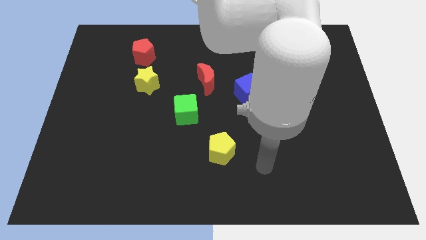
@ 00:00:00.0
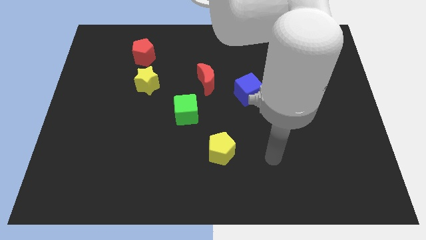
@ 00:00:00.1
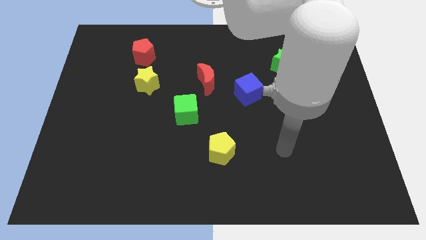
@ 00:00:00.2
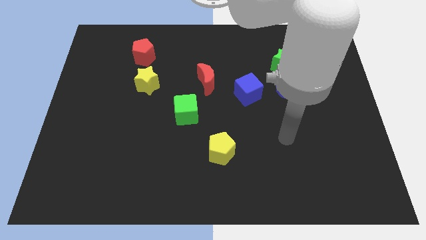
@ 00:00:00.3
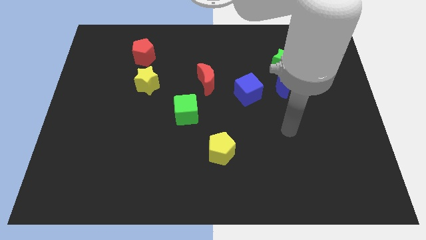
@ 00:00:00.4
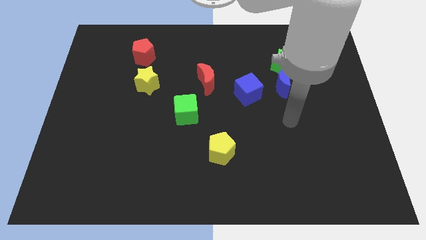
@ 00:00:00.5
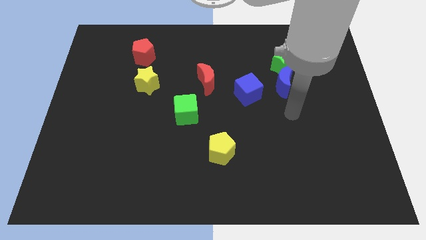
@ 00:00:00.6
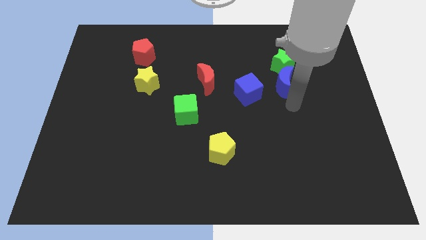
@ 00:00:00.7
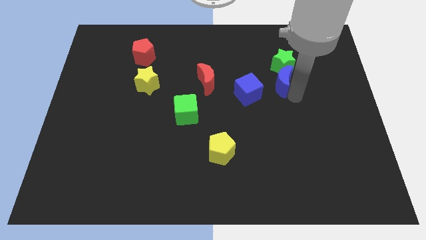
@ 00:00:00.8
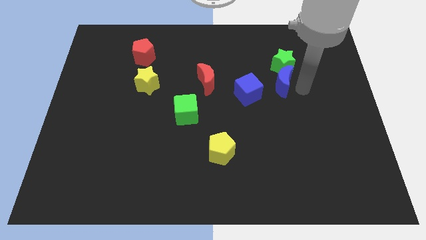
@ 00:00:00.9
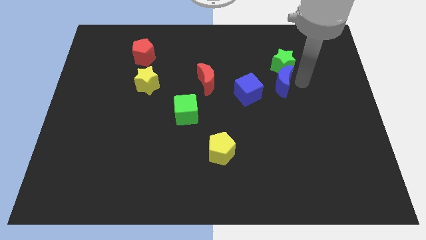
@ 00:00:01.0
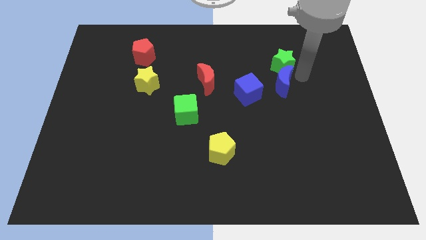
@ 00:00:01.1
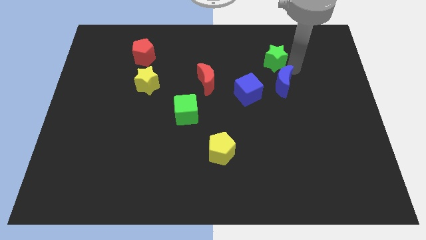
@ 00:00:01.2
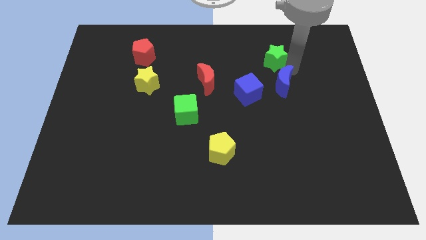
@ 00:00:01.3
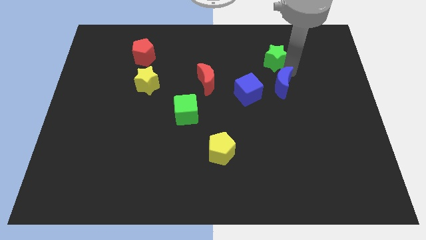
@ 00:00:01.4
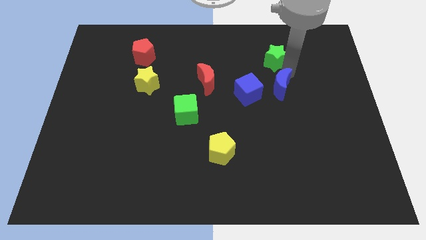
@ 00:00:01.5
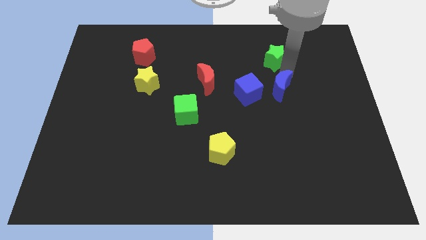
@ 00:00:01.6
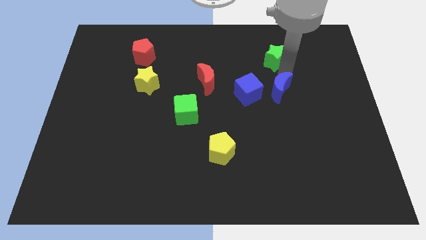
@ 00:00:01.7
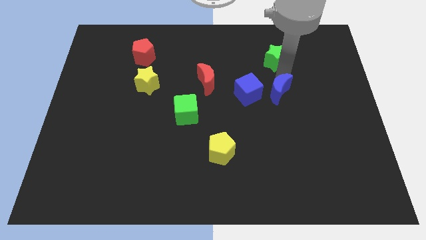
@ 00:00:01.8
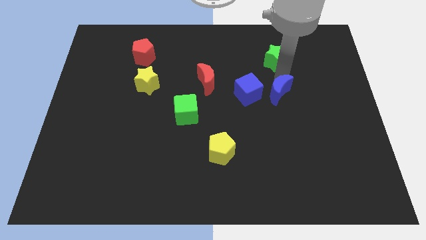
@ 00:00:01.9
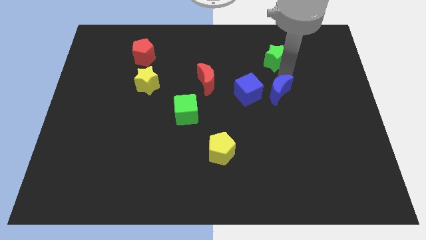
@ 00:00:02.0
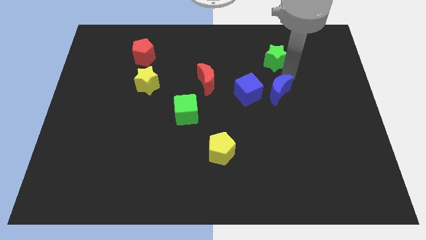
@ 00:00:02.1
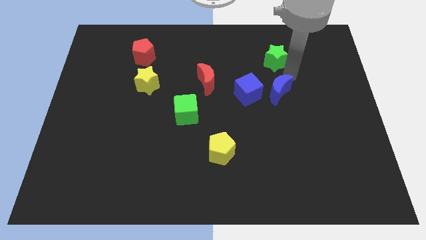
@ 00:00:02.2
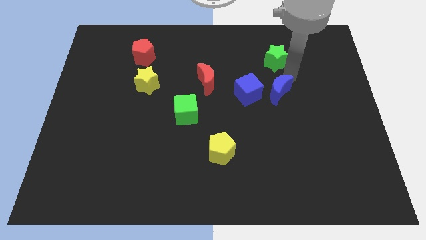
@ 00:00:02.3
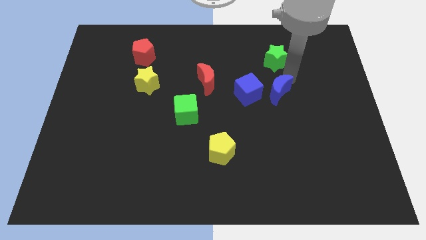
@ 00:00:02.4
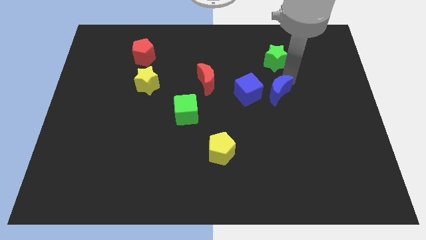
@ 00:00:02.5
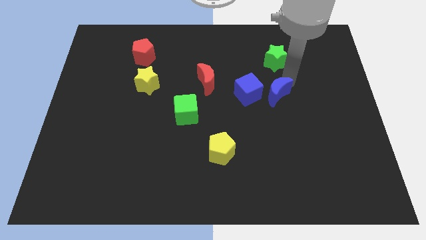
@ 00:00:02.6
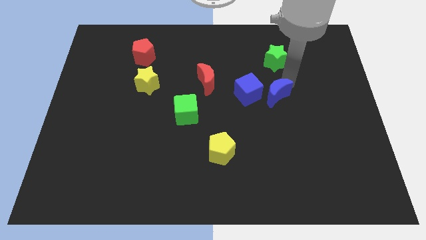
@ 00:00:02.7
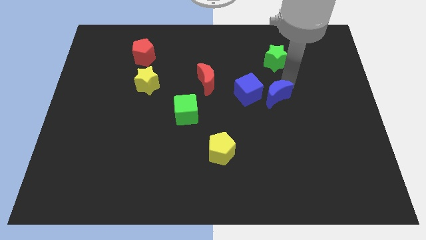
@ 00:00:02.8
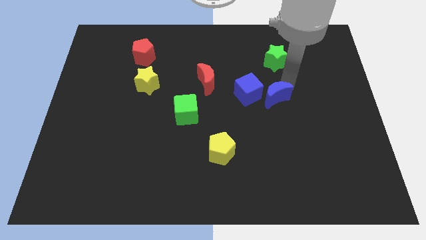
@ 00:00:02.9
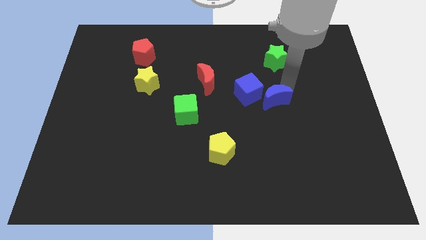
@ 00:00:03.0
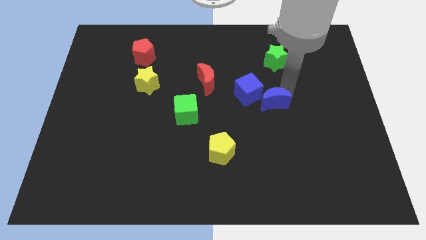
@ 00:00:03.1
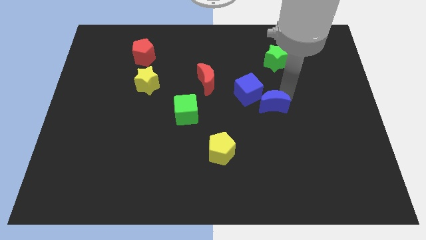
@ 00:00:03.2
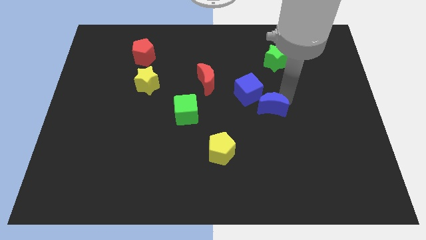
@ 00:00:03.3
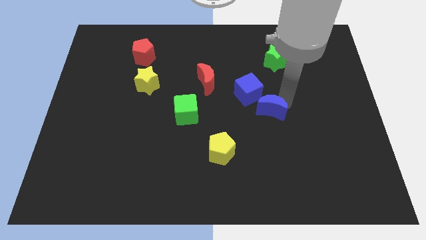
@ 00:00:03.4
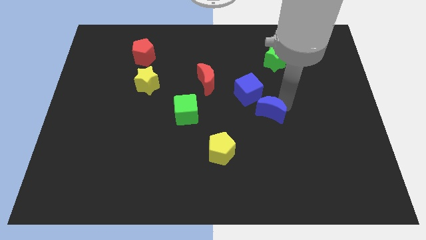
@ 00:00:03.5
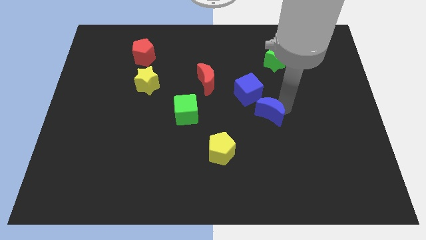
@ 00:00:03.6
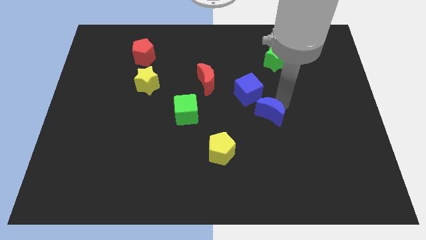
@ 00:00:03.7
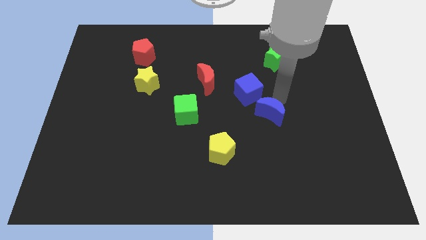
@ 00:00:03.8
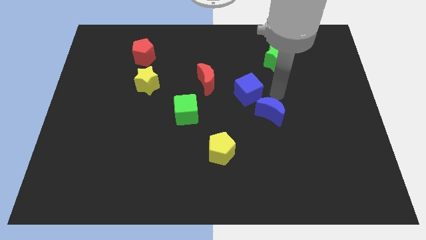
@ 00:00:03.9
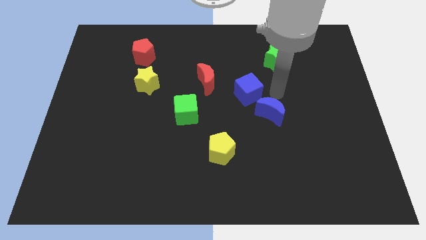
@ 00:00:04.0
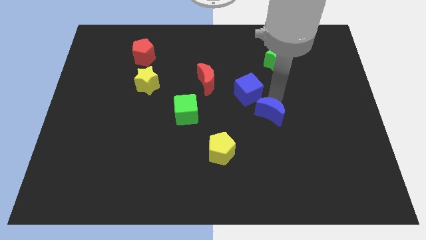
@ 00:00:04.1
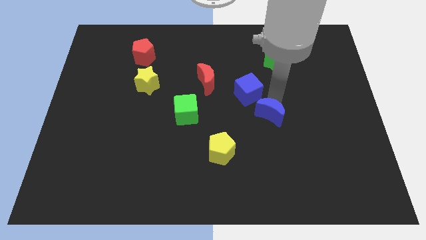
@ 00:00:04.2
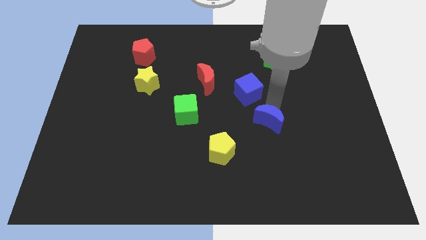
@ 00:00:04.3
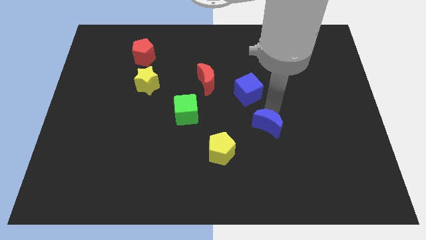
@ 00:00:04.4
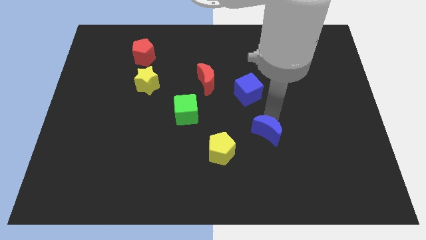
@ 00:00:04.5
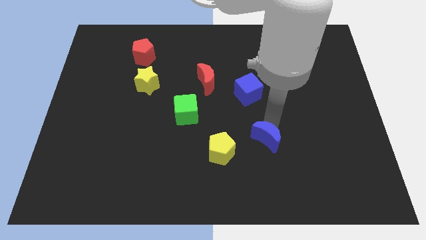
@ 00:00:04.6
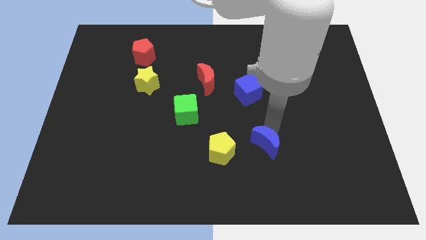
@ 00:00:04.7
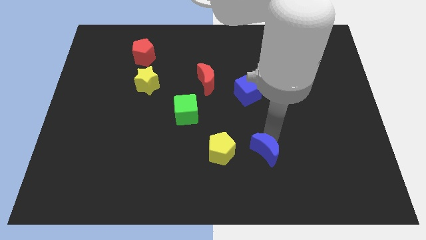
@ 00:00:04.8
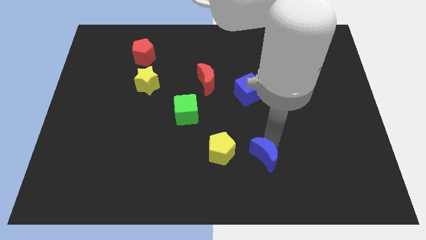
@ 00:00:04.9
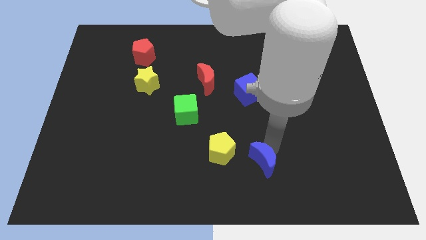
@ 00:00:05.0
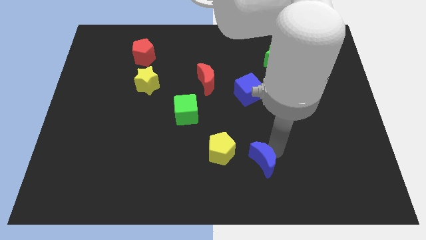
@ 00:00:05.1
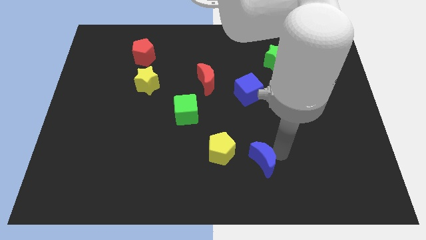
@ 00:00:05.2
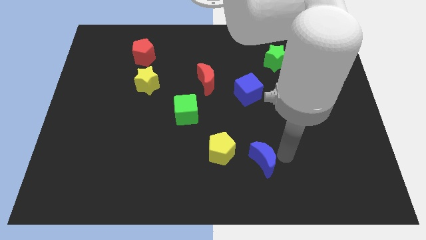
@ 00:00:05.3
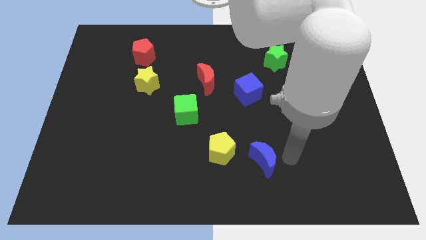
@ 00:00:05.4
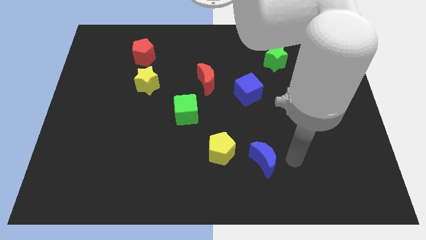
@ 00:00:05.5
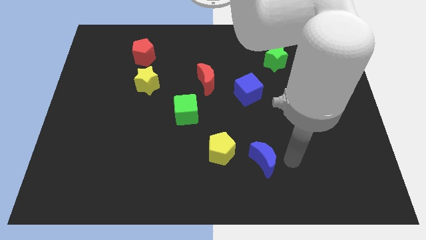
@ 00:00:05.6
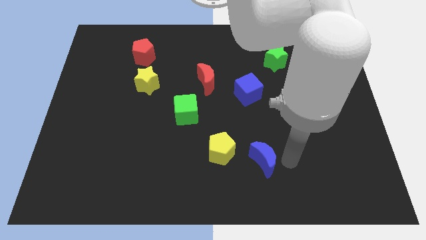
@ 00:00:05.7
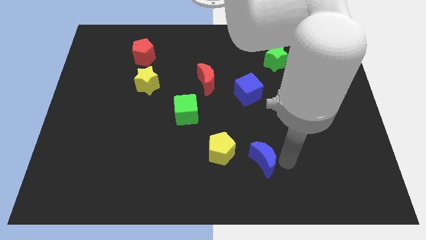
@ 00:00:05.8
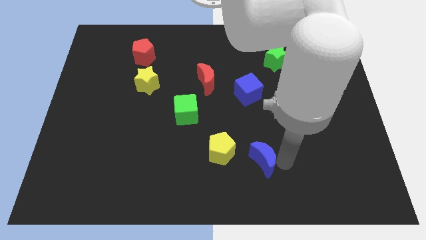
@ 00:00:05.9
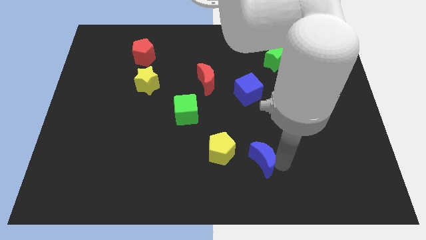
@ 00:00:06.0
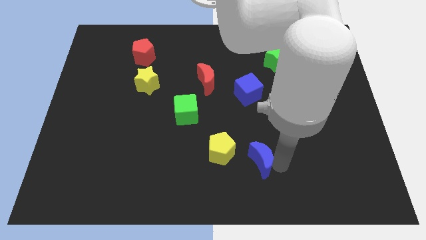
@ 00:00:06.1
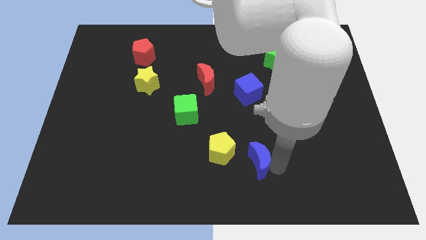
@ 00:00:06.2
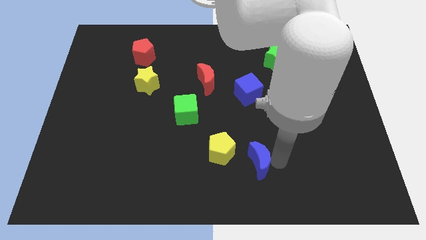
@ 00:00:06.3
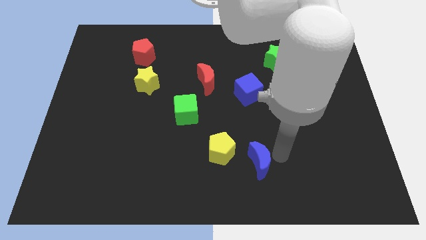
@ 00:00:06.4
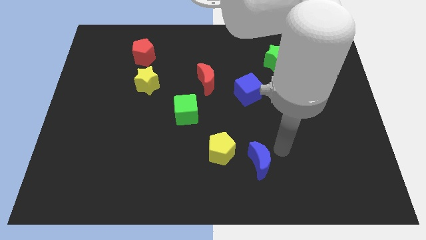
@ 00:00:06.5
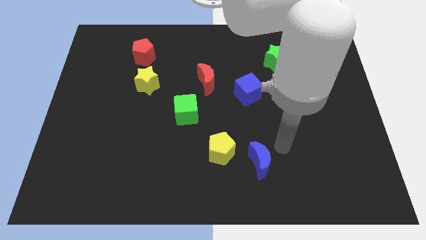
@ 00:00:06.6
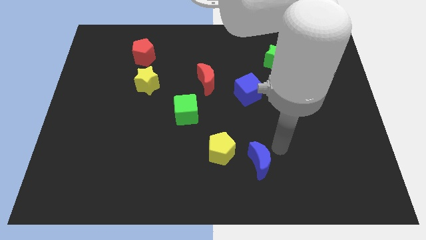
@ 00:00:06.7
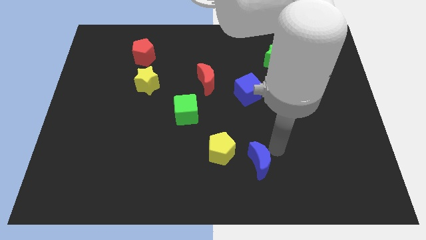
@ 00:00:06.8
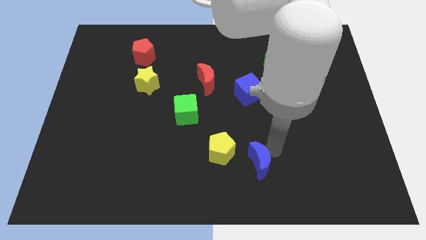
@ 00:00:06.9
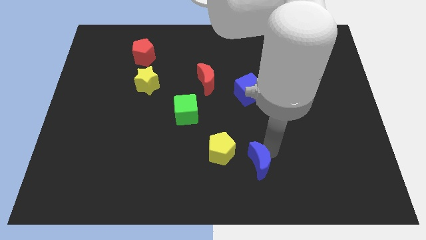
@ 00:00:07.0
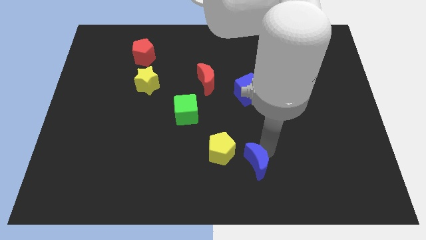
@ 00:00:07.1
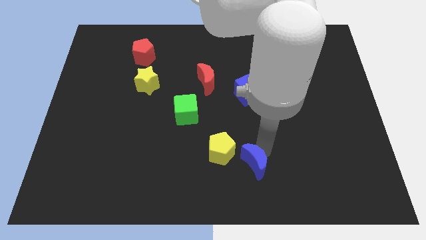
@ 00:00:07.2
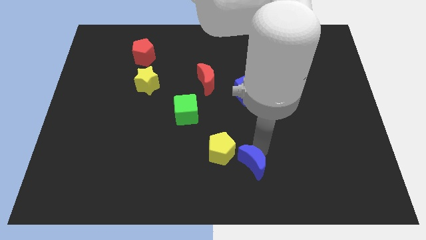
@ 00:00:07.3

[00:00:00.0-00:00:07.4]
move the blue moon to the bottom side
